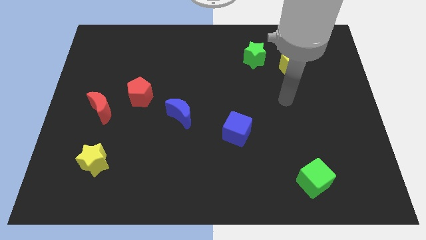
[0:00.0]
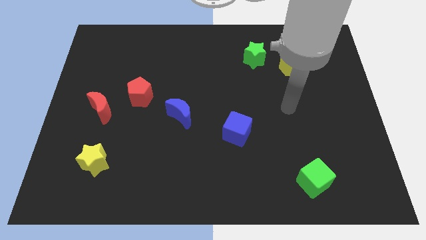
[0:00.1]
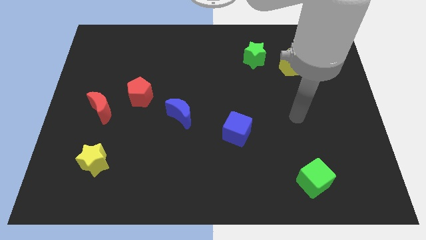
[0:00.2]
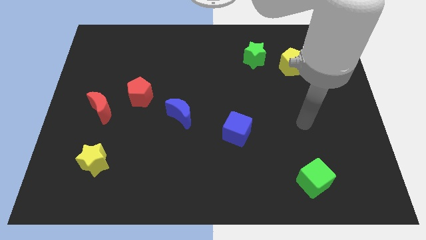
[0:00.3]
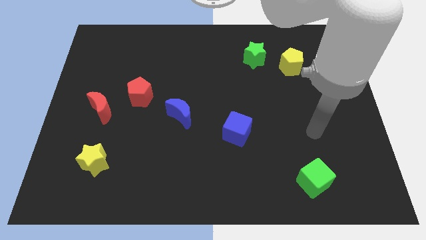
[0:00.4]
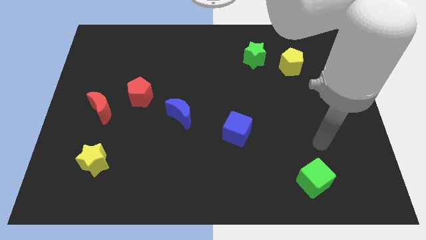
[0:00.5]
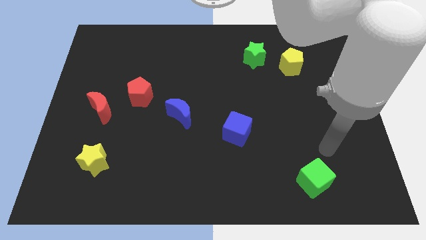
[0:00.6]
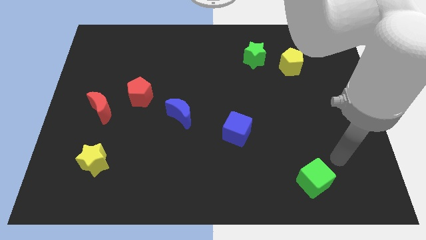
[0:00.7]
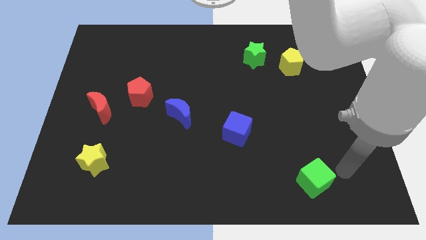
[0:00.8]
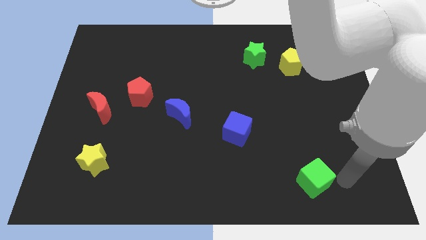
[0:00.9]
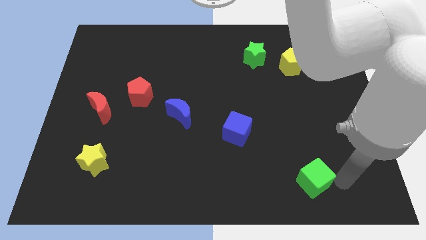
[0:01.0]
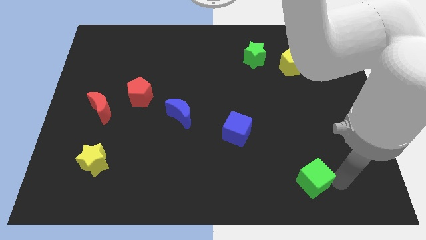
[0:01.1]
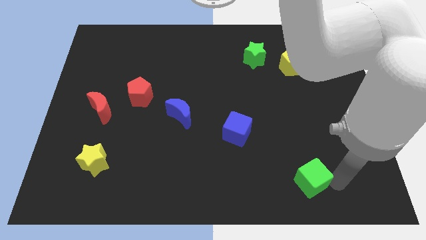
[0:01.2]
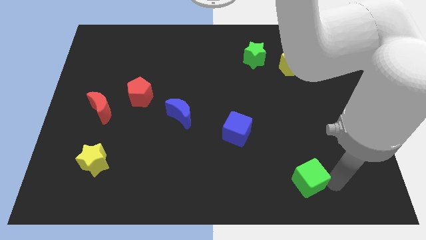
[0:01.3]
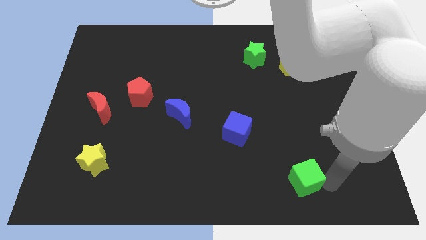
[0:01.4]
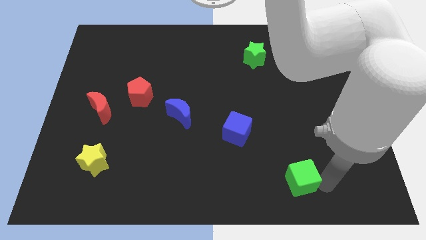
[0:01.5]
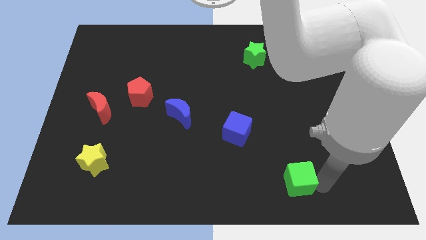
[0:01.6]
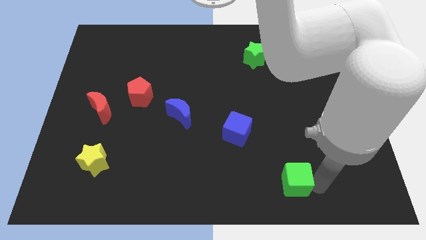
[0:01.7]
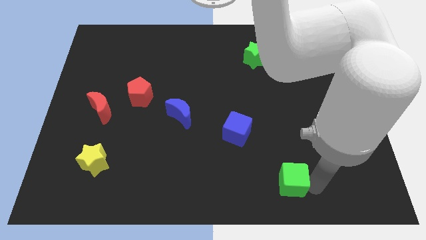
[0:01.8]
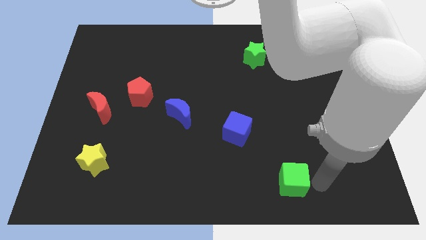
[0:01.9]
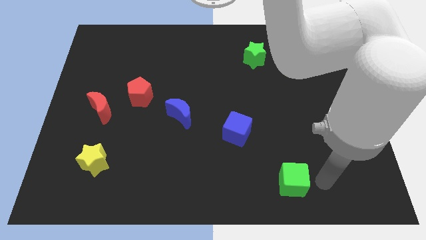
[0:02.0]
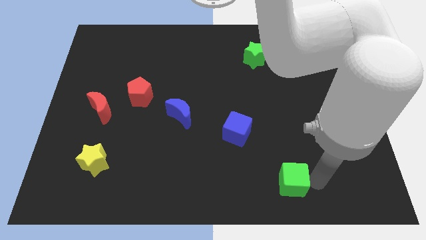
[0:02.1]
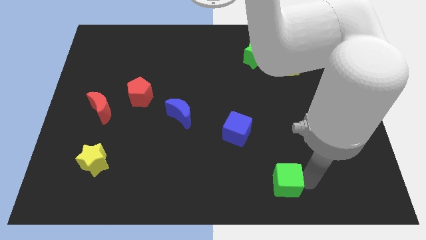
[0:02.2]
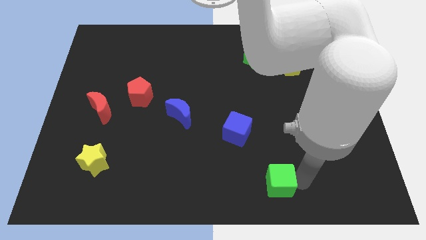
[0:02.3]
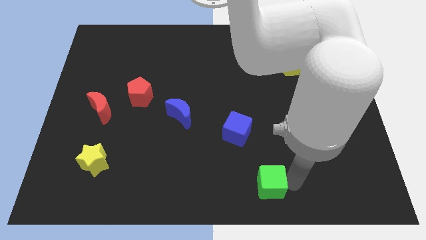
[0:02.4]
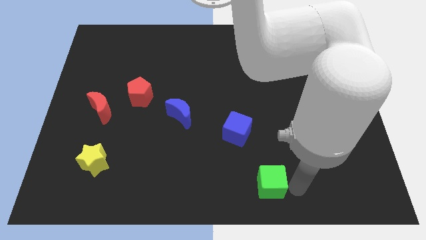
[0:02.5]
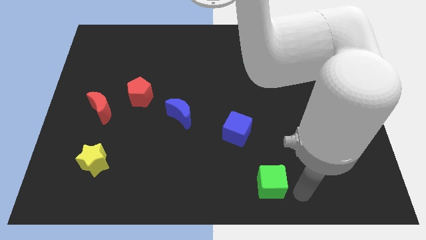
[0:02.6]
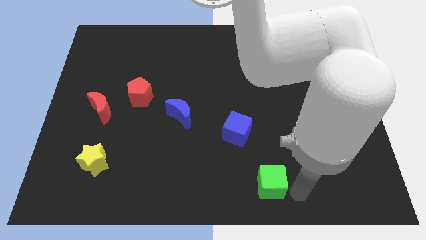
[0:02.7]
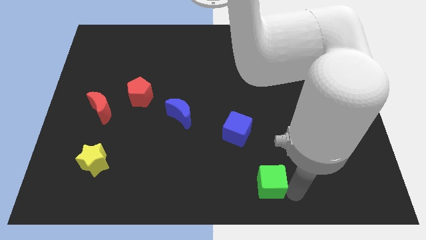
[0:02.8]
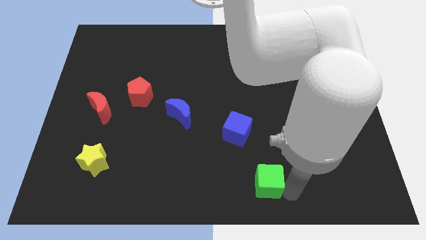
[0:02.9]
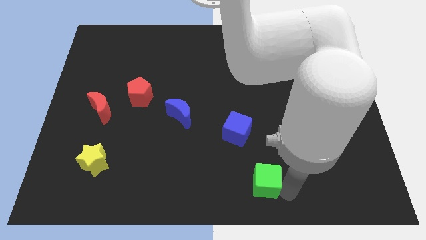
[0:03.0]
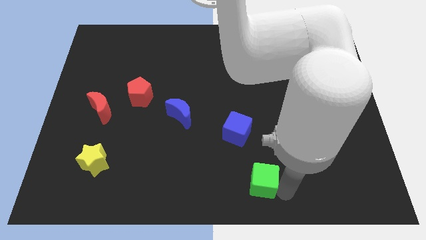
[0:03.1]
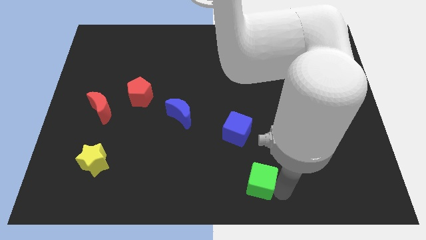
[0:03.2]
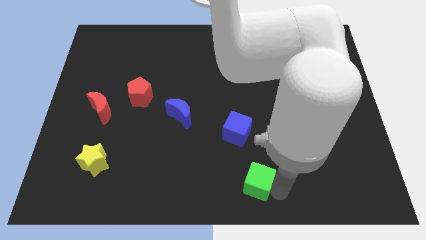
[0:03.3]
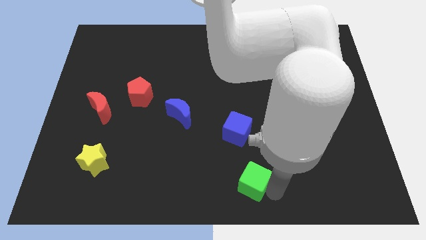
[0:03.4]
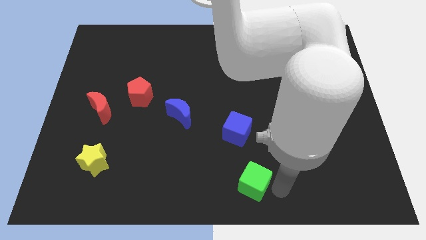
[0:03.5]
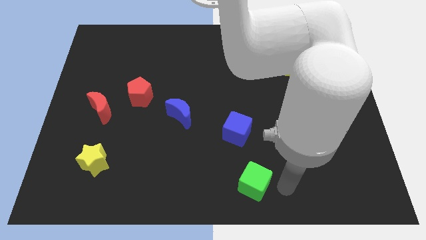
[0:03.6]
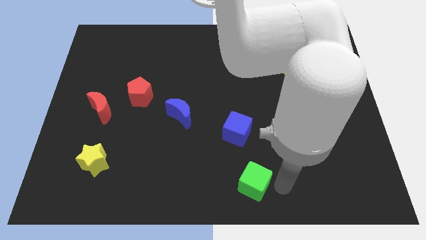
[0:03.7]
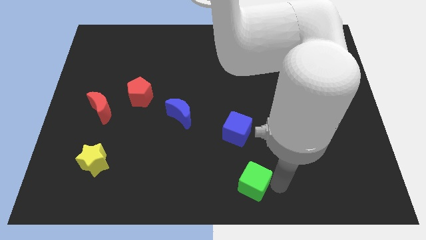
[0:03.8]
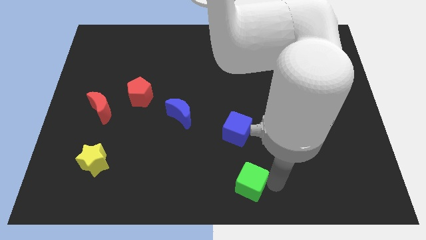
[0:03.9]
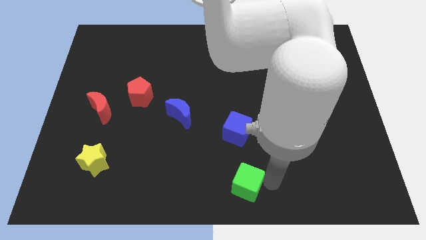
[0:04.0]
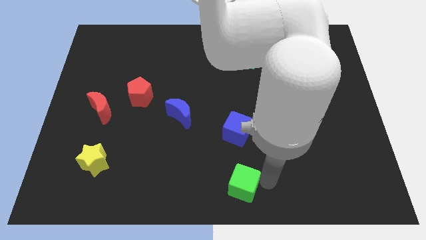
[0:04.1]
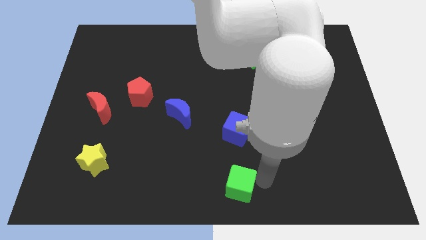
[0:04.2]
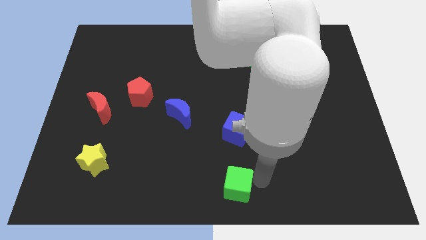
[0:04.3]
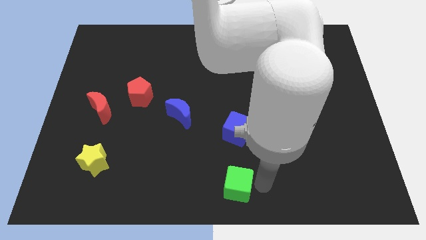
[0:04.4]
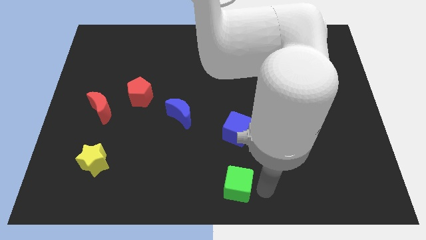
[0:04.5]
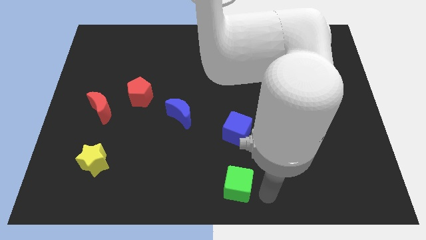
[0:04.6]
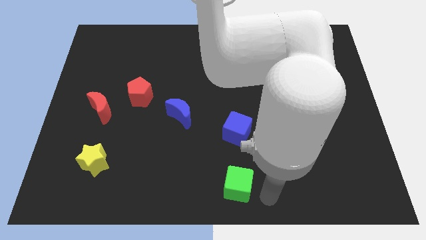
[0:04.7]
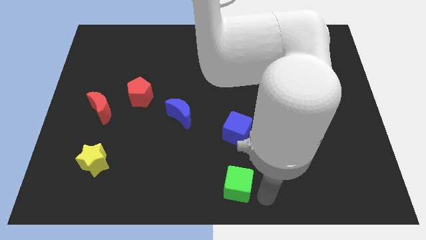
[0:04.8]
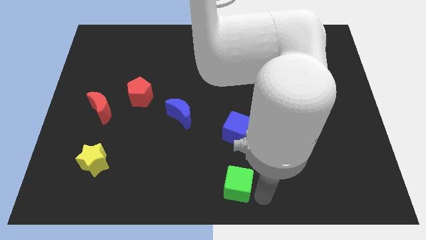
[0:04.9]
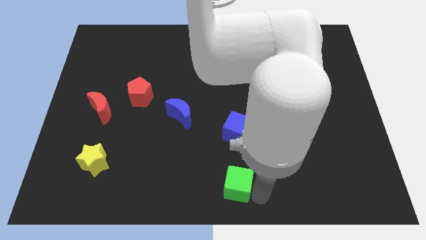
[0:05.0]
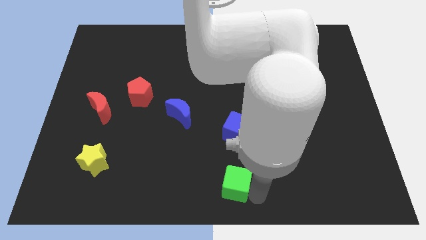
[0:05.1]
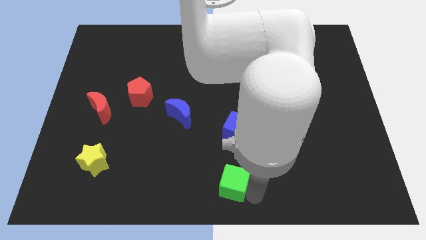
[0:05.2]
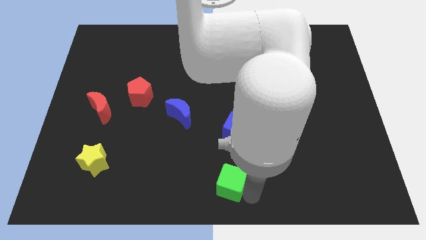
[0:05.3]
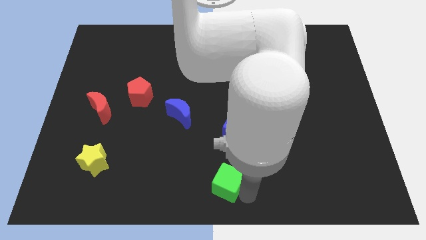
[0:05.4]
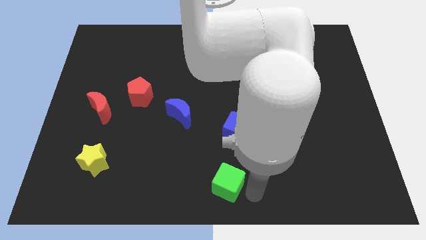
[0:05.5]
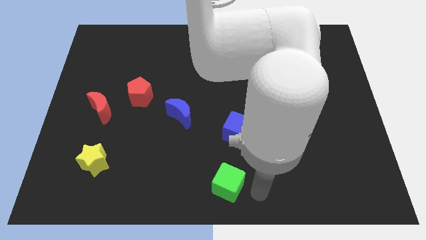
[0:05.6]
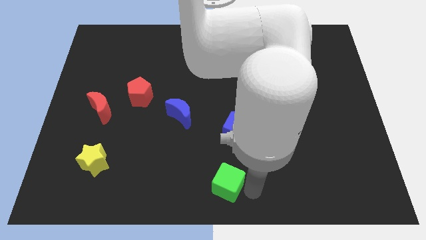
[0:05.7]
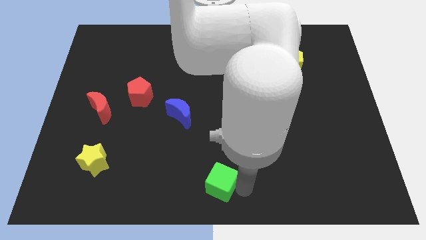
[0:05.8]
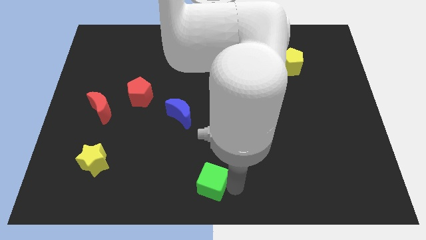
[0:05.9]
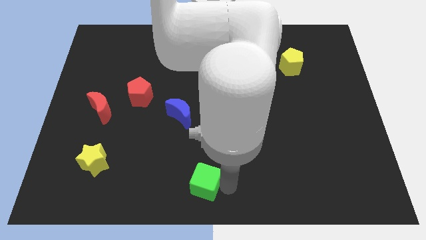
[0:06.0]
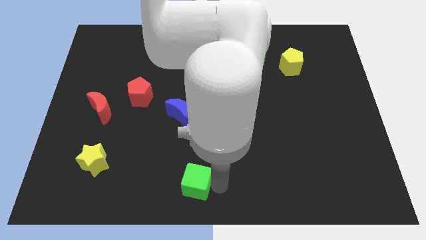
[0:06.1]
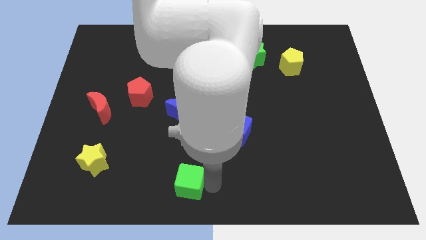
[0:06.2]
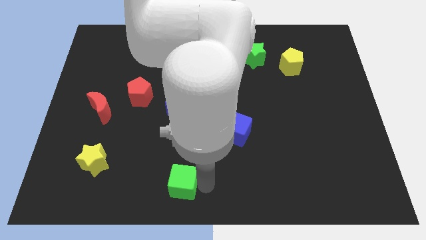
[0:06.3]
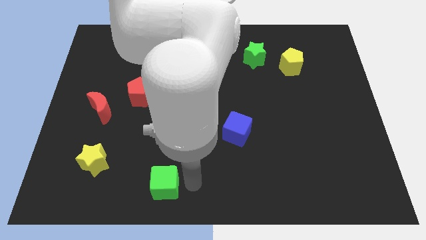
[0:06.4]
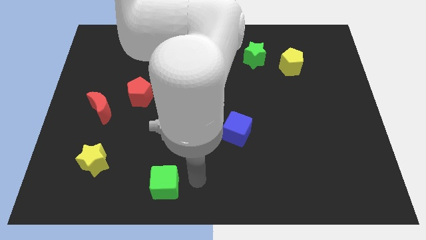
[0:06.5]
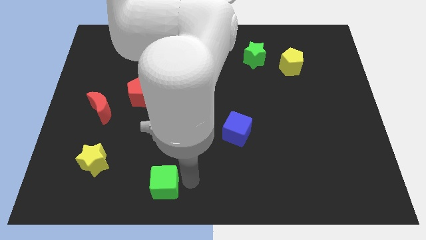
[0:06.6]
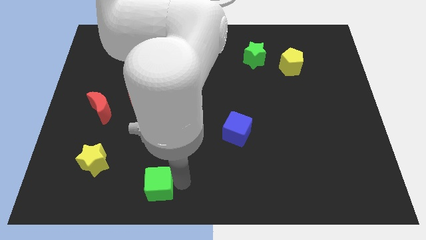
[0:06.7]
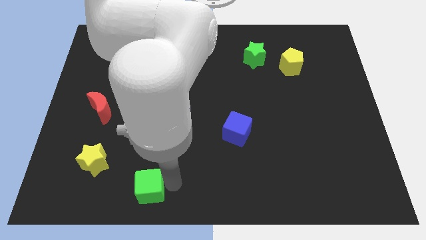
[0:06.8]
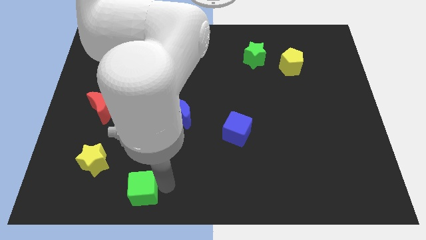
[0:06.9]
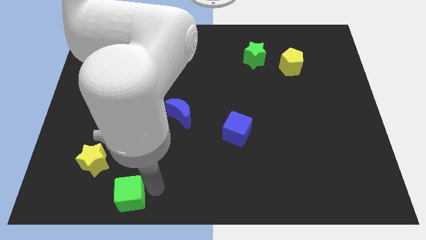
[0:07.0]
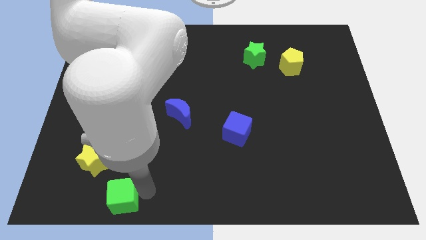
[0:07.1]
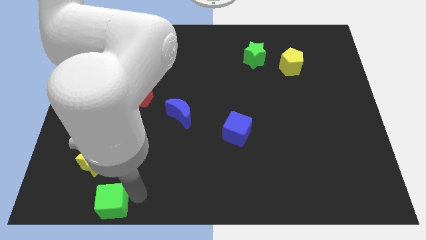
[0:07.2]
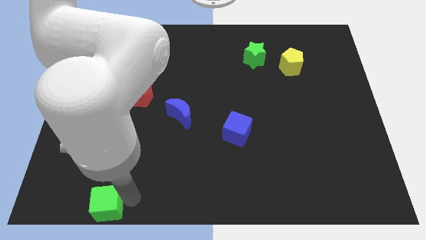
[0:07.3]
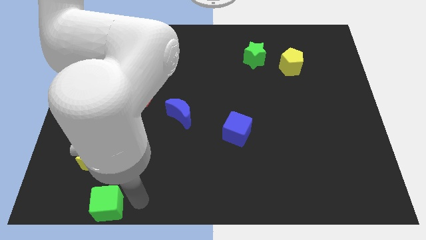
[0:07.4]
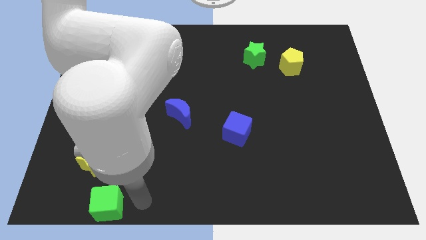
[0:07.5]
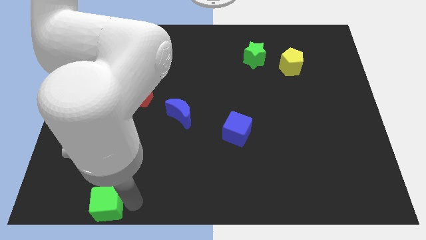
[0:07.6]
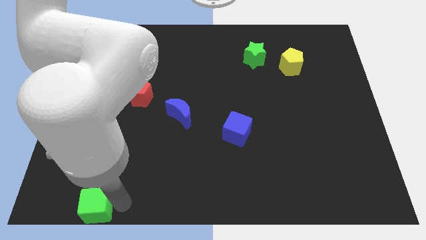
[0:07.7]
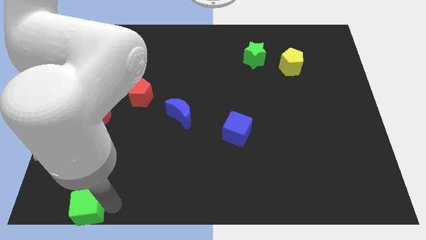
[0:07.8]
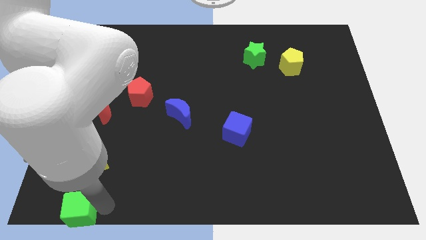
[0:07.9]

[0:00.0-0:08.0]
move the green cube to the bottom left of the board

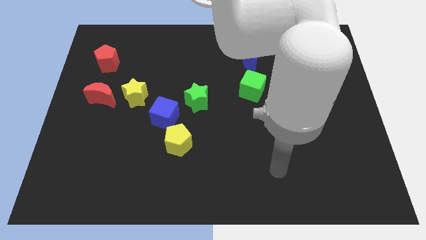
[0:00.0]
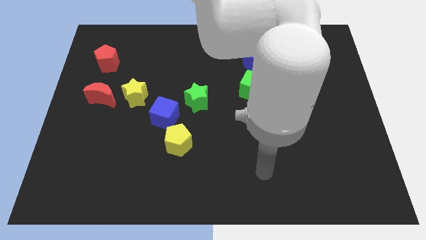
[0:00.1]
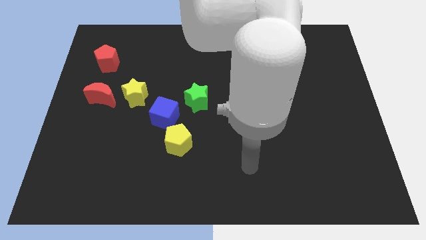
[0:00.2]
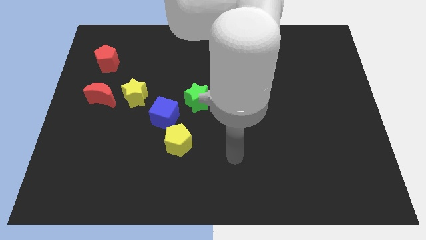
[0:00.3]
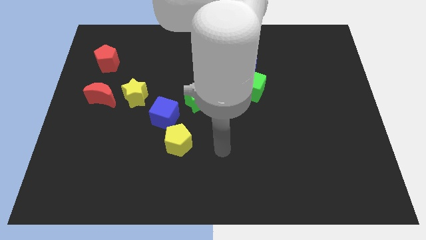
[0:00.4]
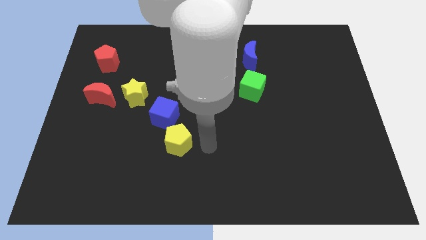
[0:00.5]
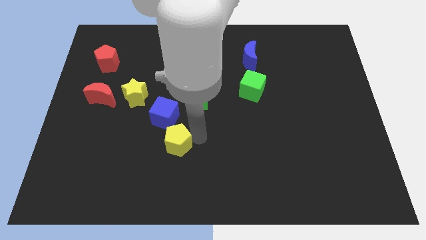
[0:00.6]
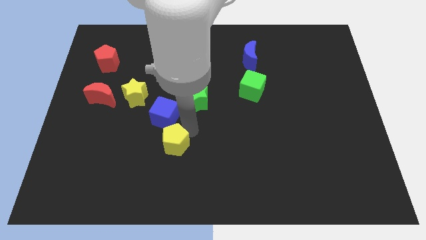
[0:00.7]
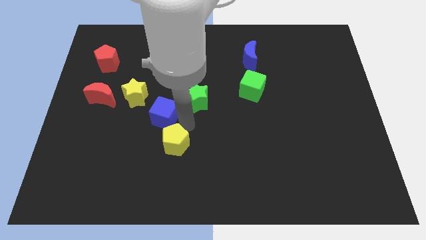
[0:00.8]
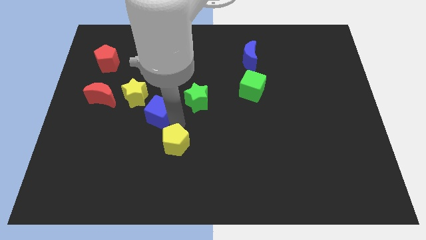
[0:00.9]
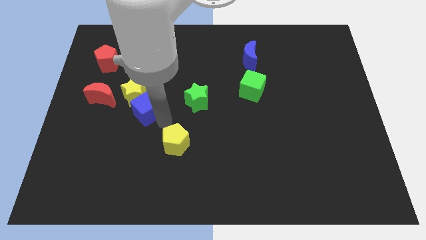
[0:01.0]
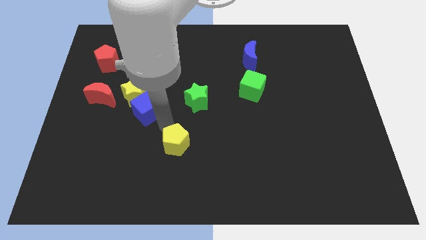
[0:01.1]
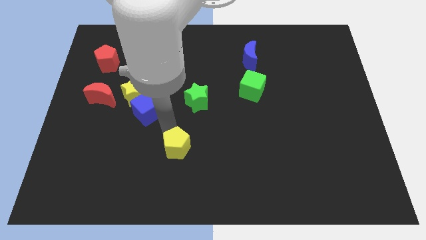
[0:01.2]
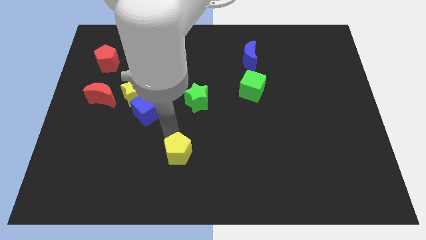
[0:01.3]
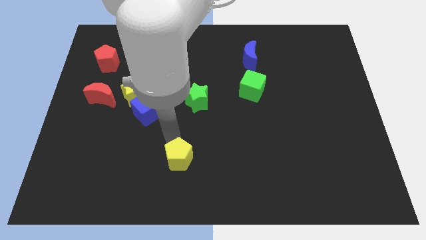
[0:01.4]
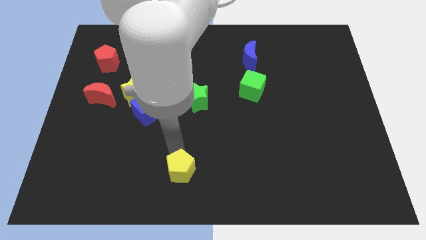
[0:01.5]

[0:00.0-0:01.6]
put the yellow pentagon to the bottom side
